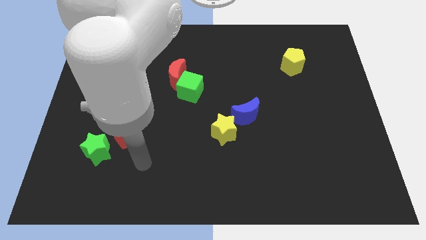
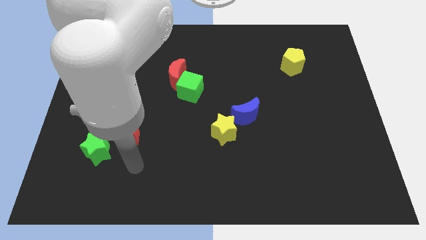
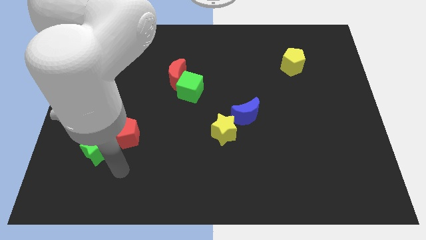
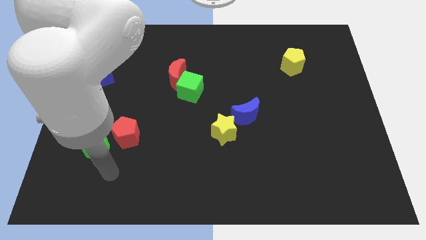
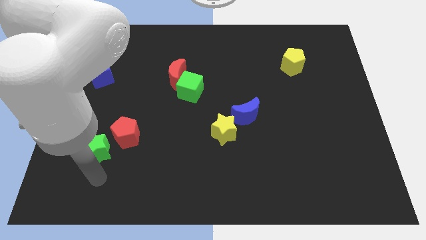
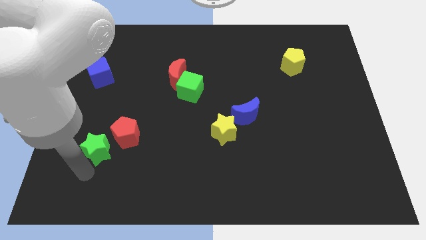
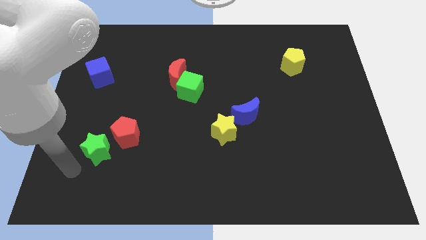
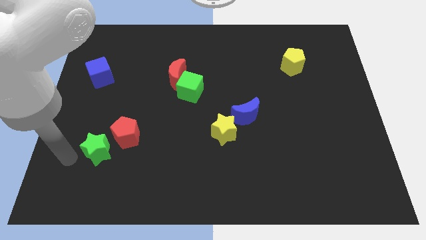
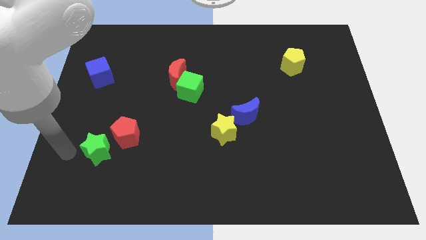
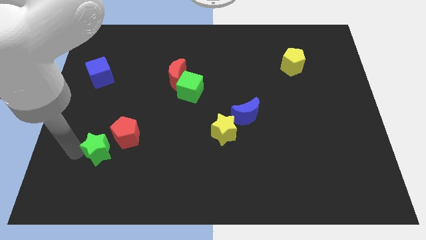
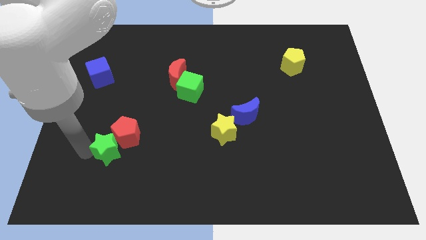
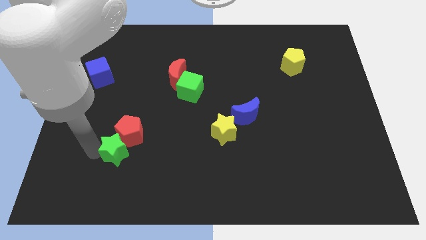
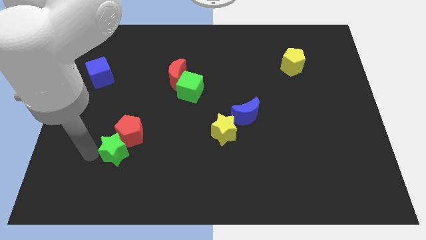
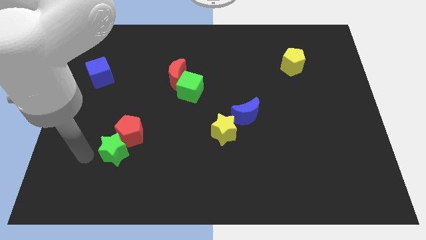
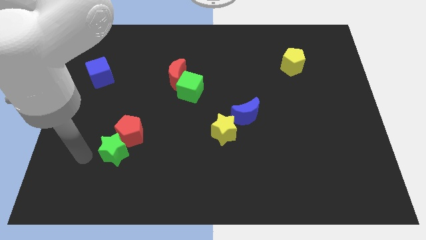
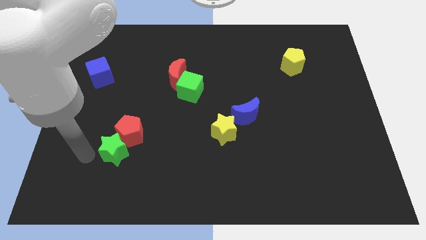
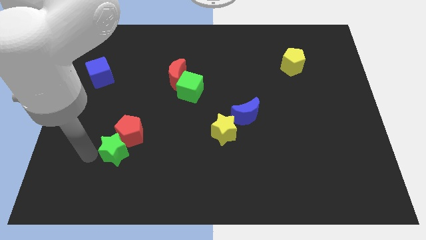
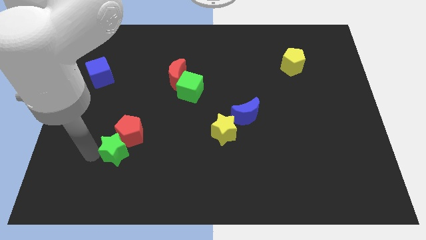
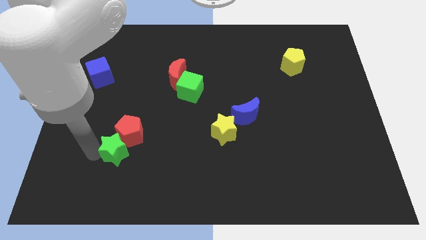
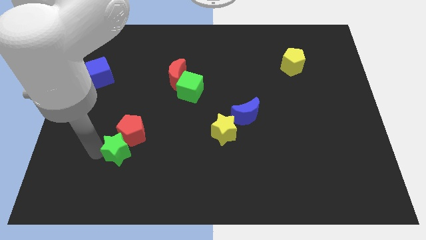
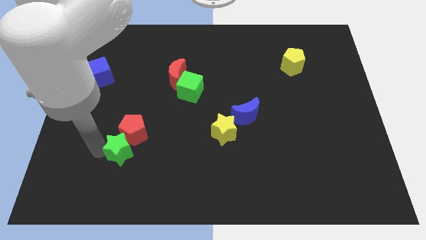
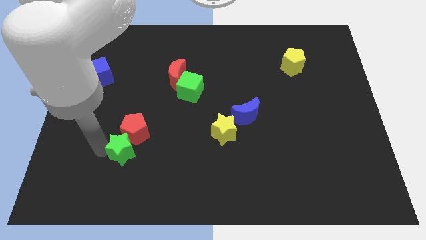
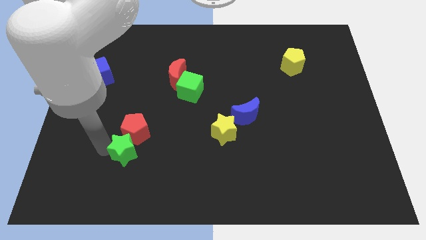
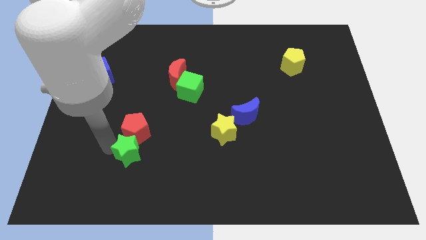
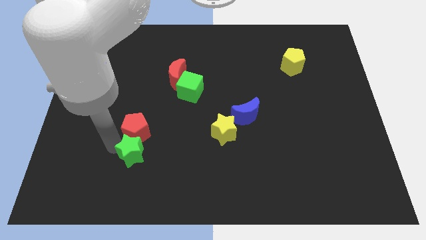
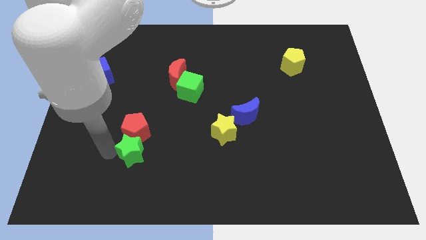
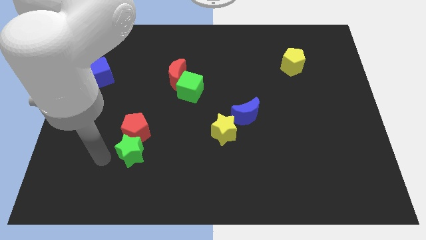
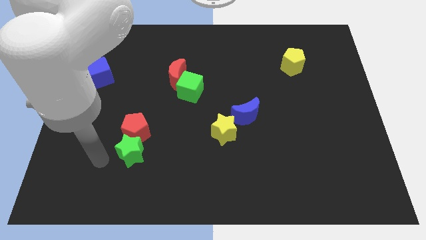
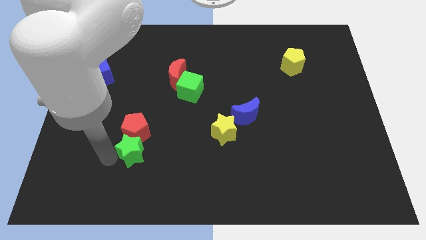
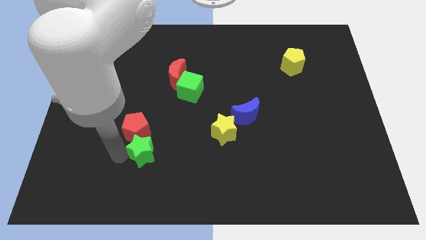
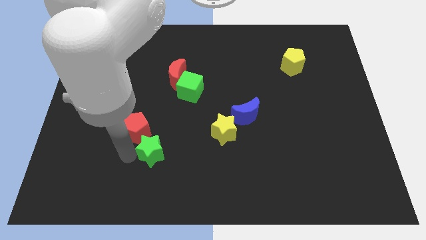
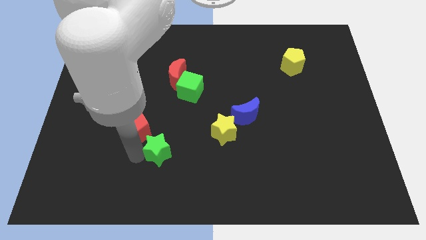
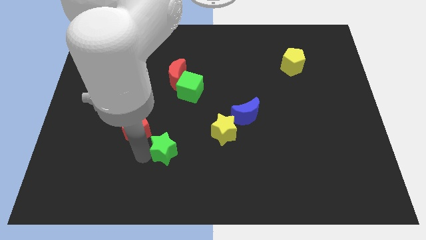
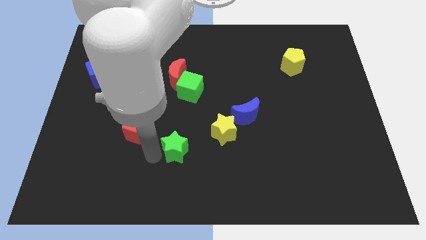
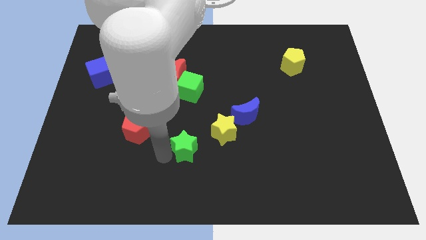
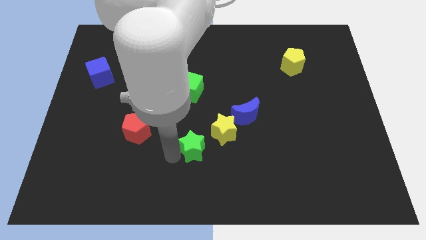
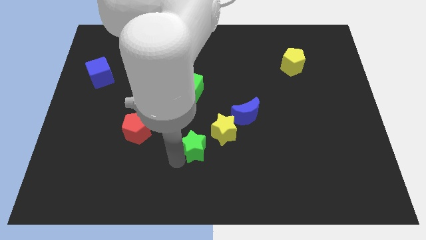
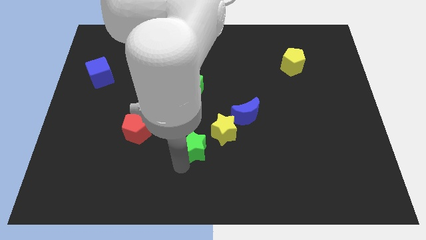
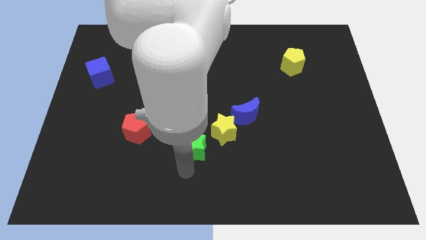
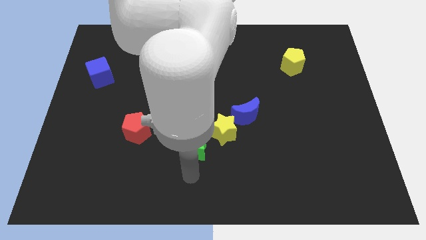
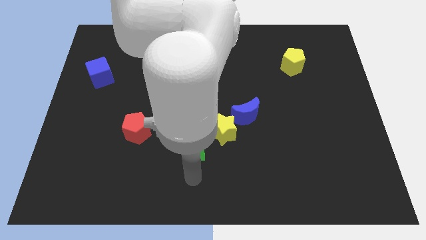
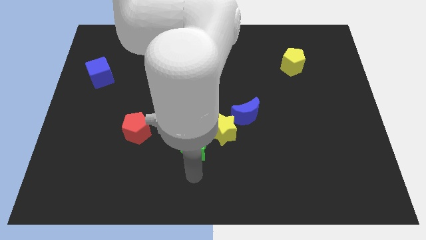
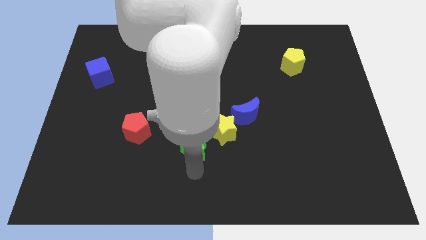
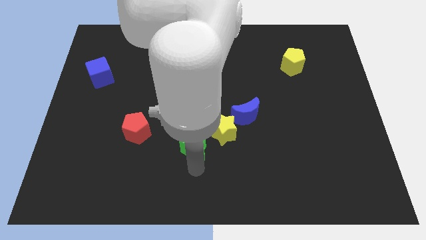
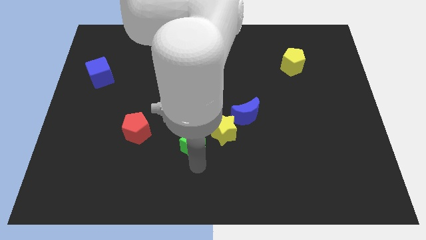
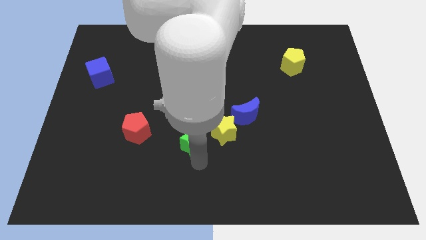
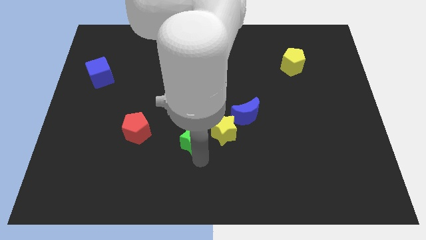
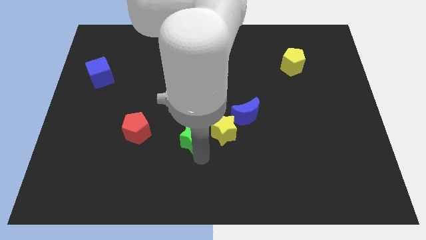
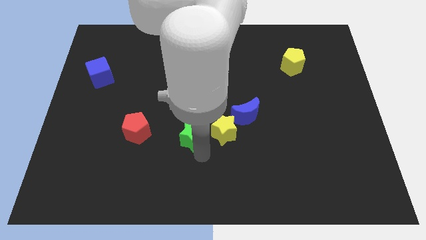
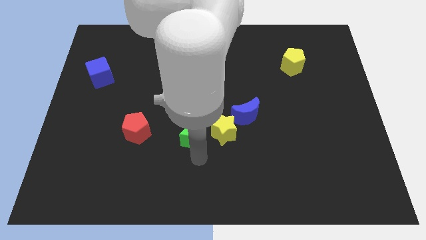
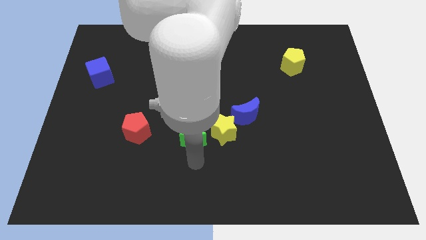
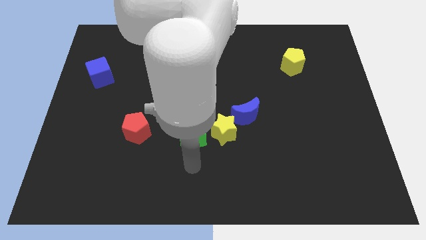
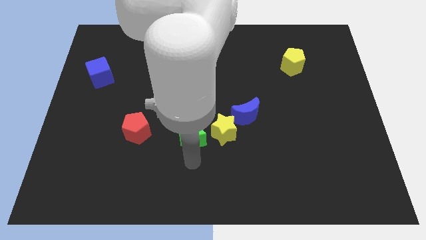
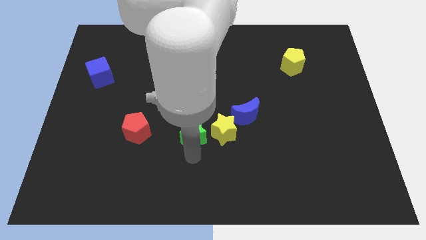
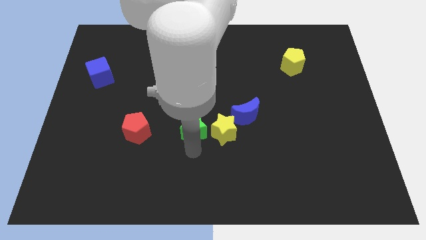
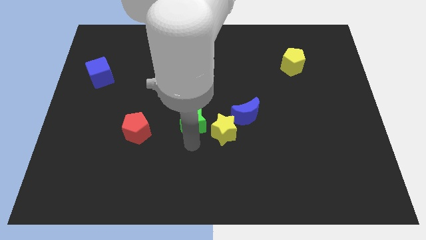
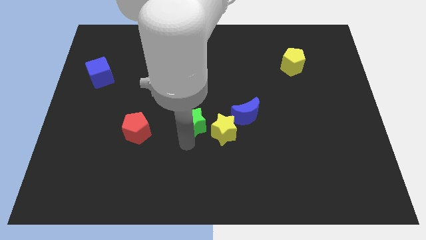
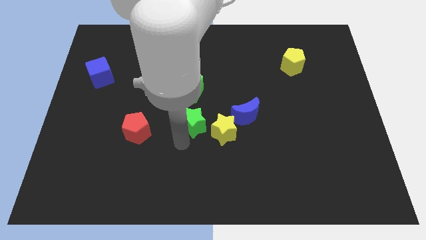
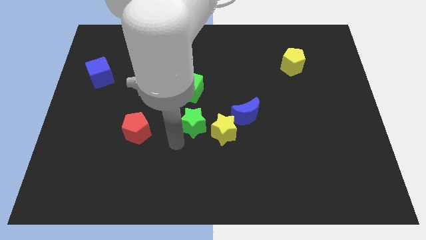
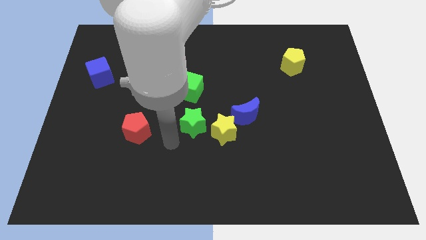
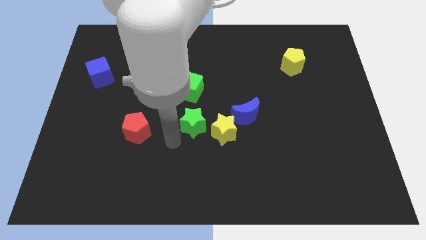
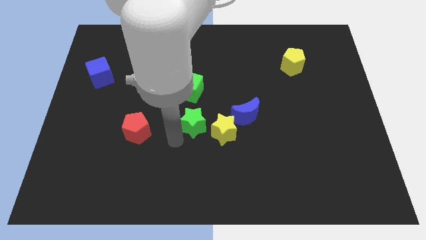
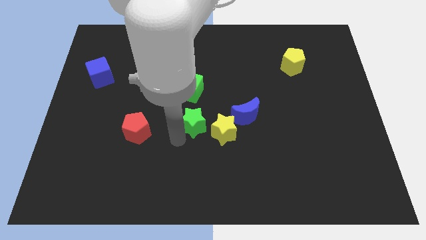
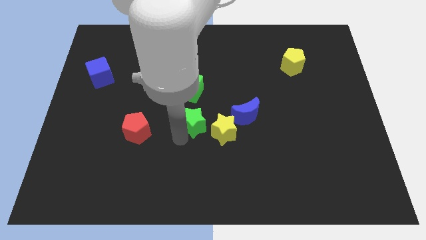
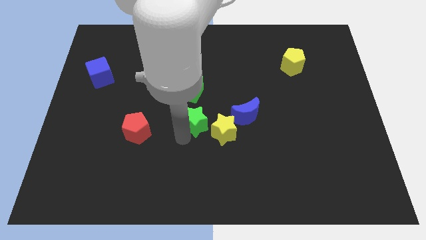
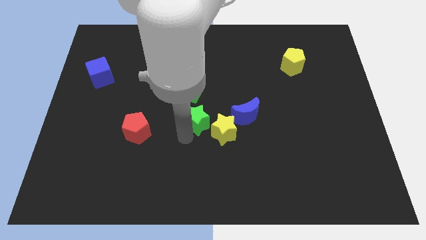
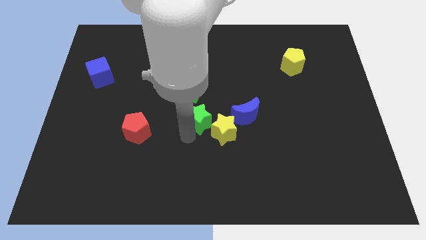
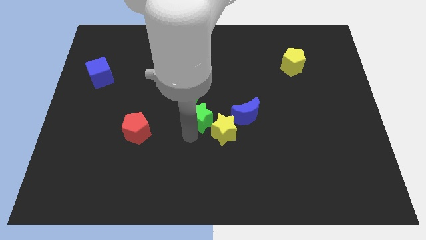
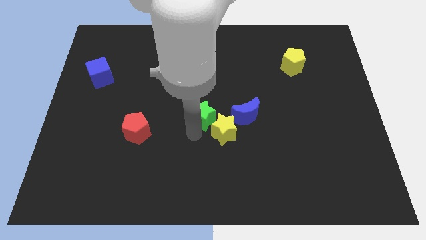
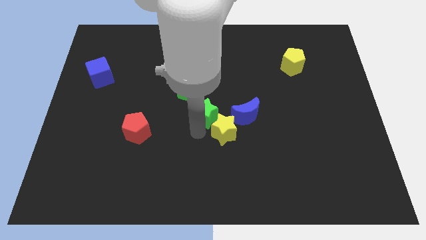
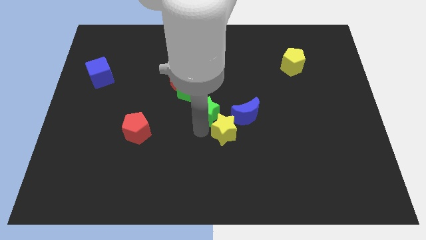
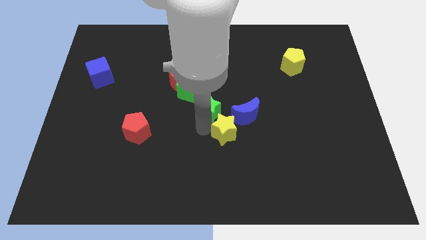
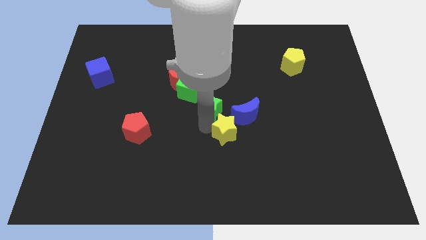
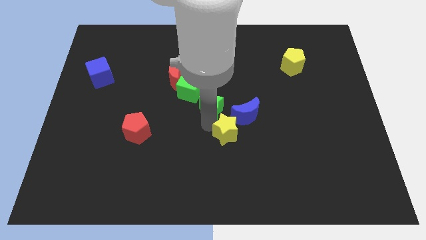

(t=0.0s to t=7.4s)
move the green star to the top left side of the blue moon
